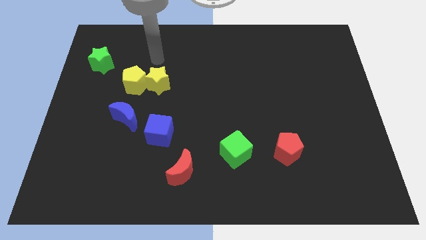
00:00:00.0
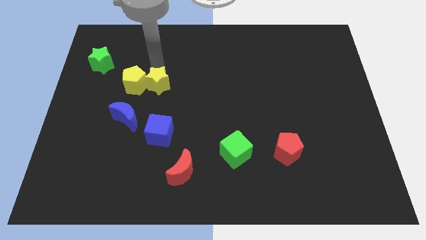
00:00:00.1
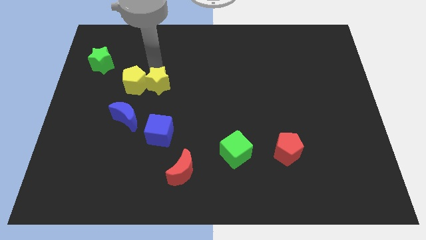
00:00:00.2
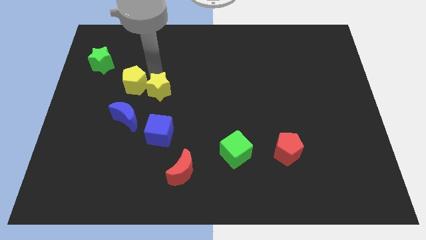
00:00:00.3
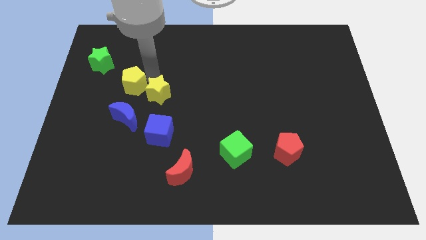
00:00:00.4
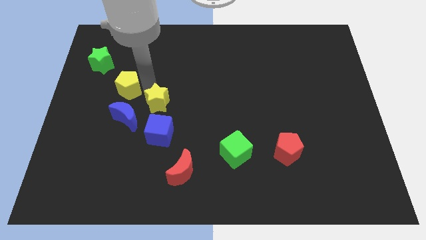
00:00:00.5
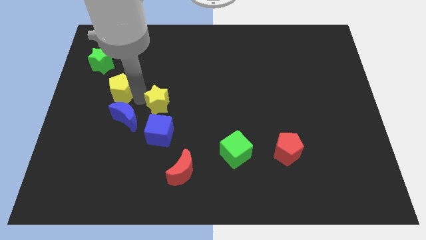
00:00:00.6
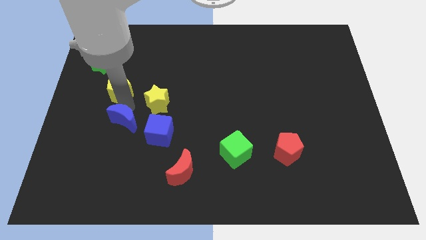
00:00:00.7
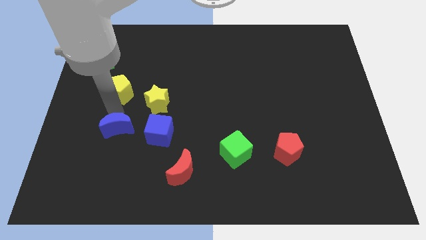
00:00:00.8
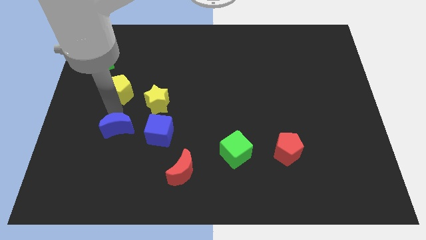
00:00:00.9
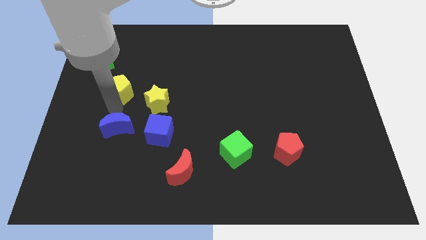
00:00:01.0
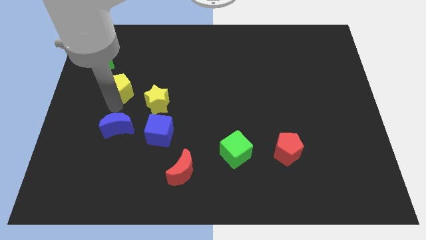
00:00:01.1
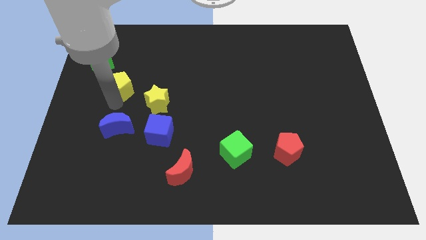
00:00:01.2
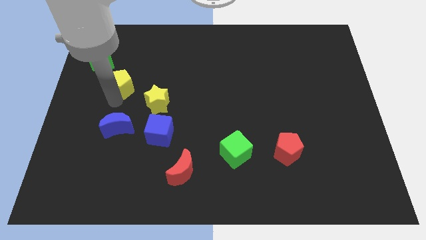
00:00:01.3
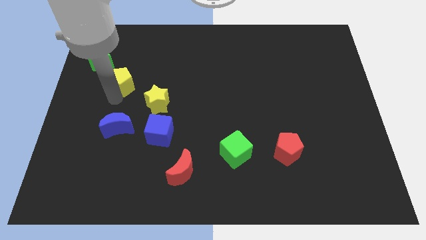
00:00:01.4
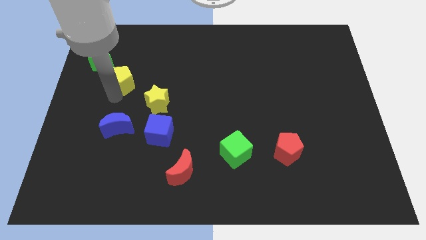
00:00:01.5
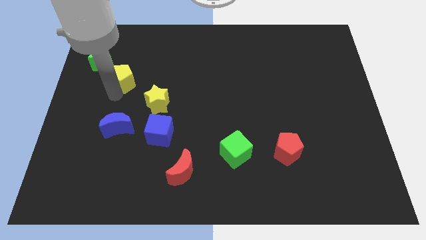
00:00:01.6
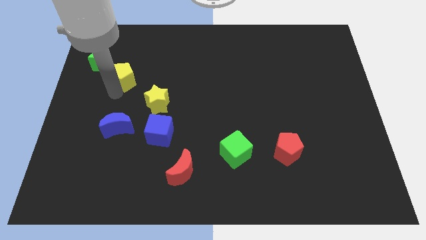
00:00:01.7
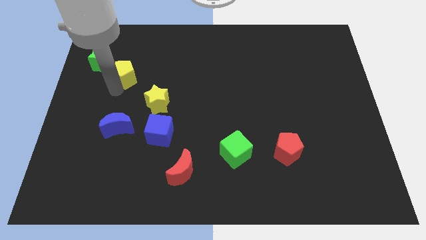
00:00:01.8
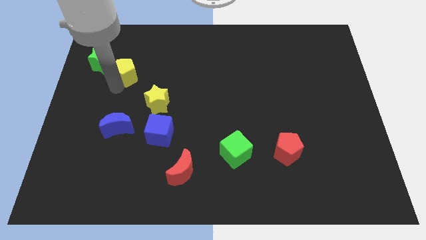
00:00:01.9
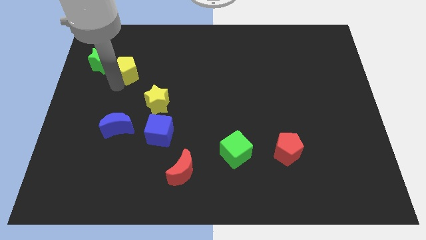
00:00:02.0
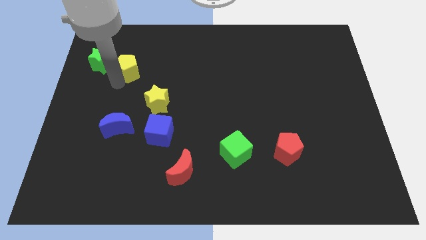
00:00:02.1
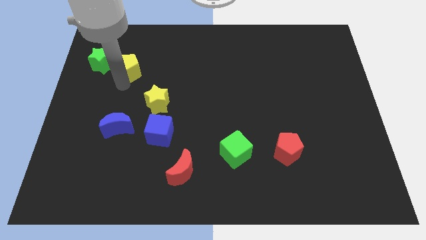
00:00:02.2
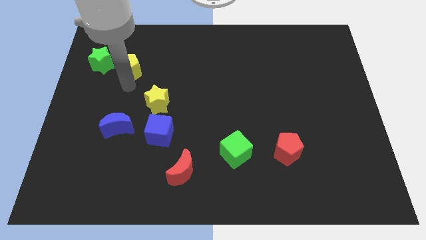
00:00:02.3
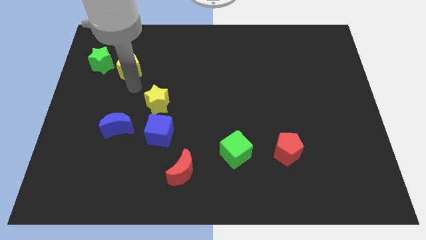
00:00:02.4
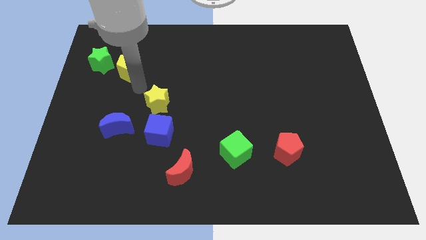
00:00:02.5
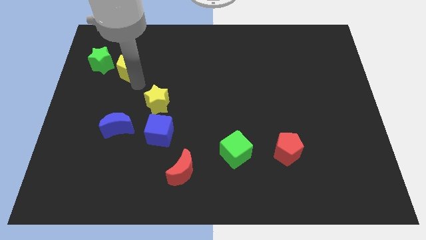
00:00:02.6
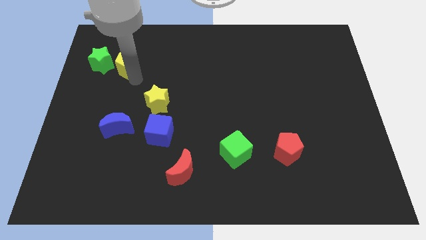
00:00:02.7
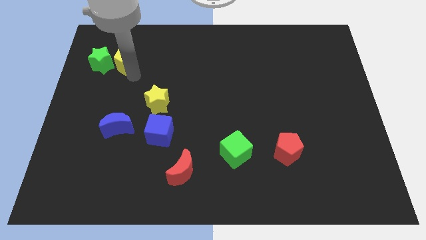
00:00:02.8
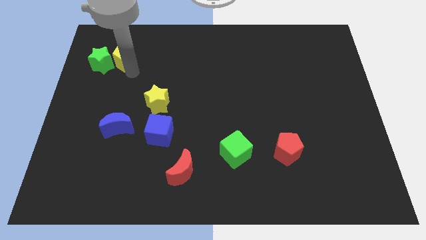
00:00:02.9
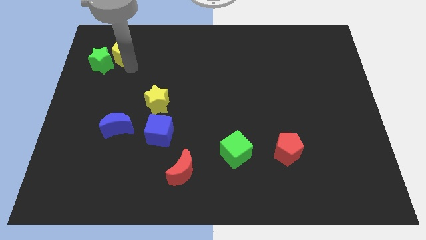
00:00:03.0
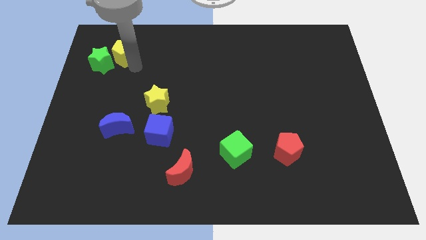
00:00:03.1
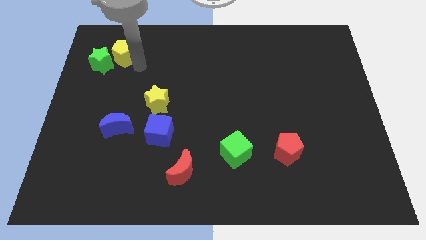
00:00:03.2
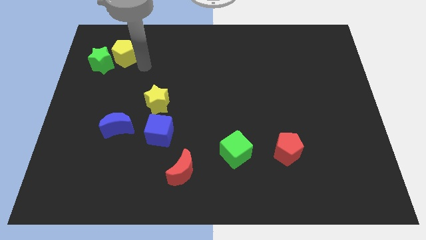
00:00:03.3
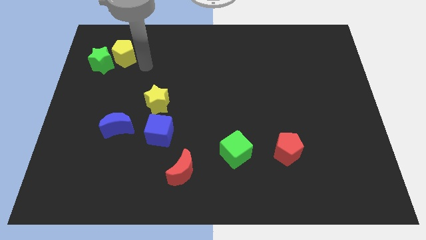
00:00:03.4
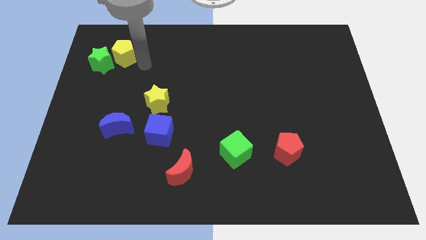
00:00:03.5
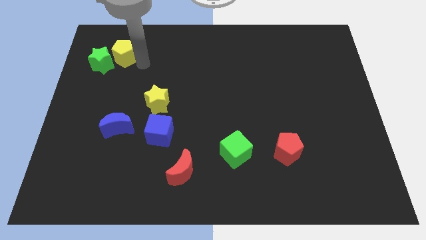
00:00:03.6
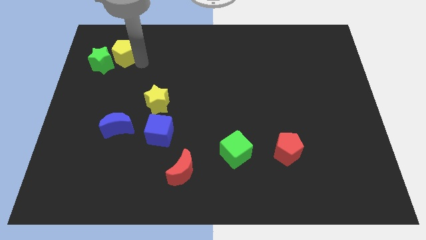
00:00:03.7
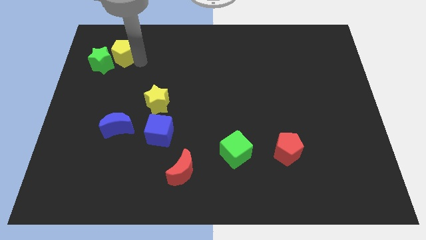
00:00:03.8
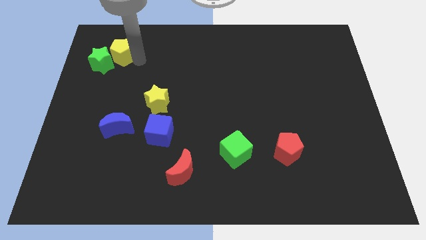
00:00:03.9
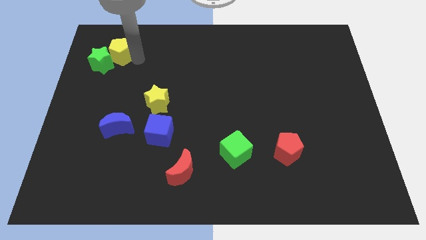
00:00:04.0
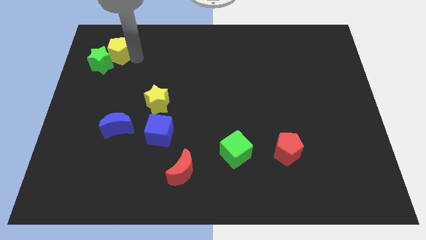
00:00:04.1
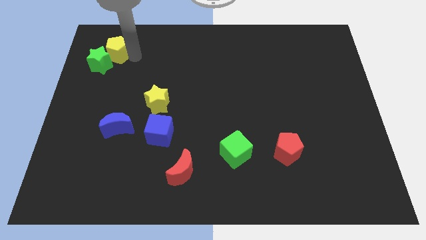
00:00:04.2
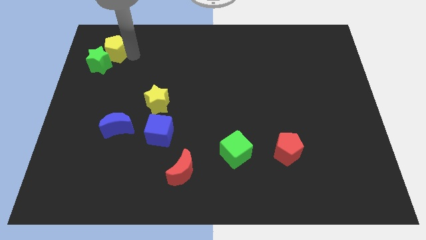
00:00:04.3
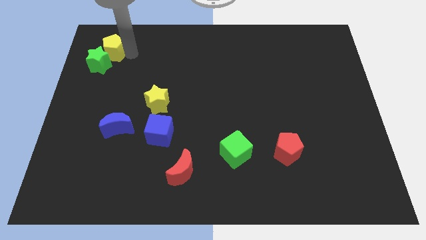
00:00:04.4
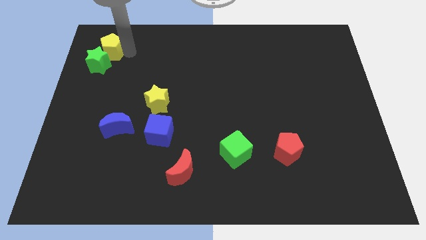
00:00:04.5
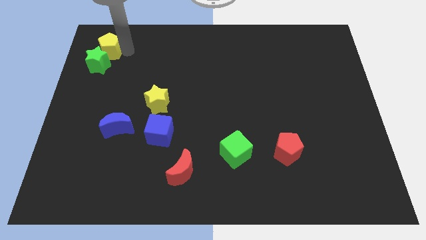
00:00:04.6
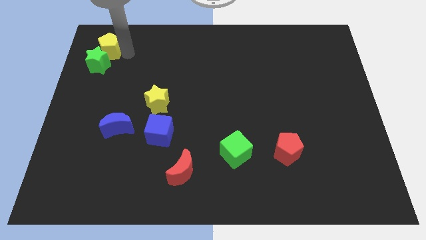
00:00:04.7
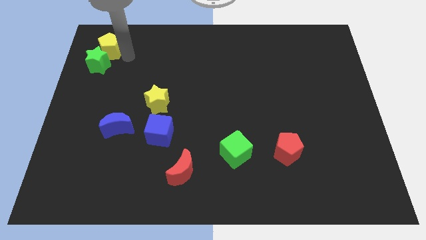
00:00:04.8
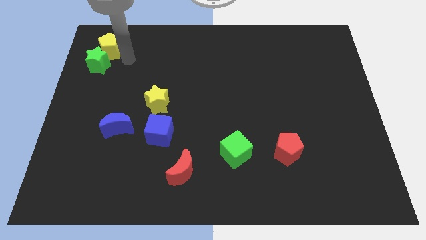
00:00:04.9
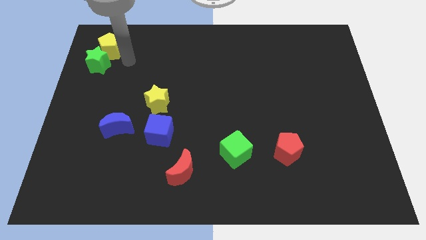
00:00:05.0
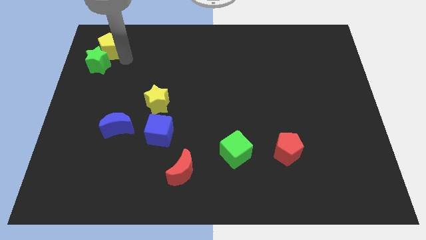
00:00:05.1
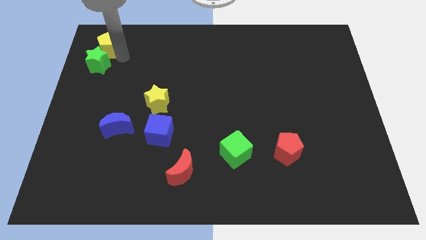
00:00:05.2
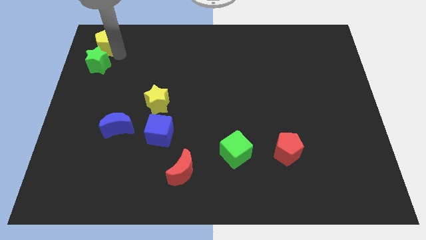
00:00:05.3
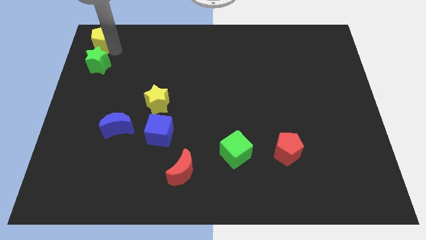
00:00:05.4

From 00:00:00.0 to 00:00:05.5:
push the yellow pentagon to the top left of the board

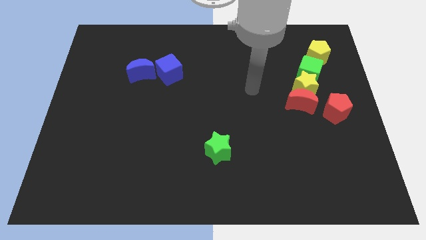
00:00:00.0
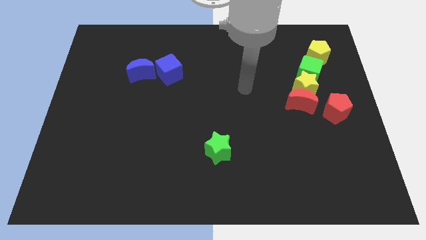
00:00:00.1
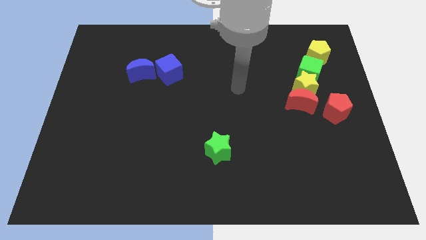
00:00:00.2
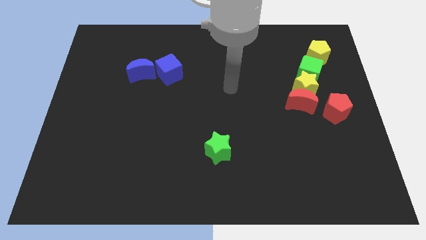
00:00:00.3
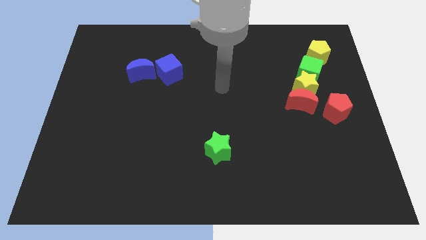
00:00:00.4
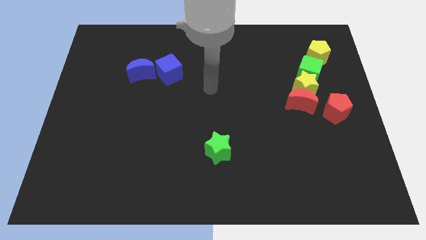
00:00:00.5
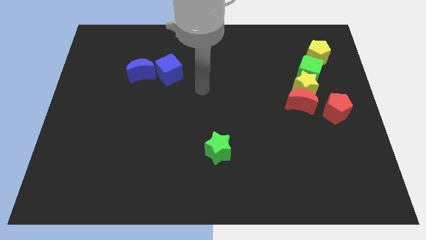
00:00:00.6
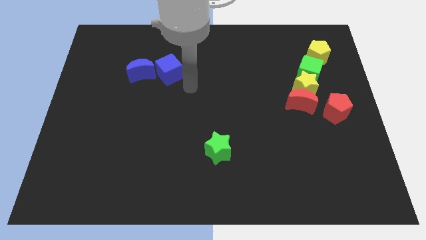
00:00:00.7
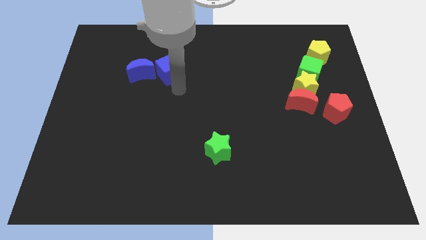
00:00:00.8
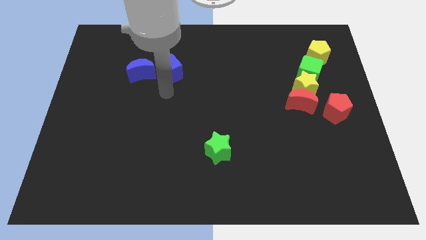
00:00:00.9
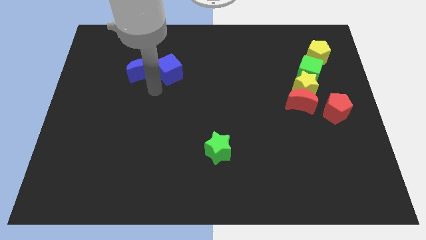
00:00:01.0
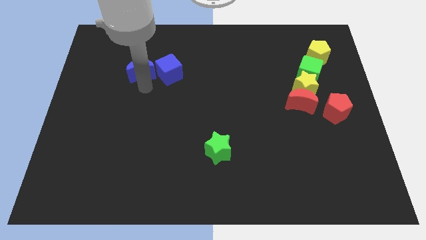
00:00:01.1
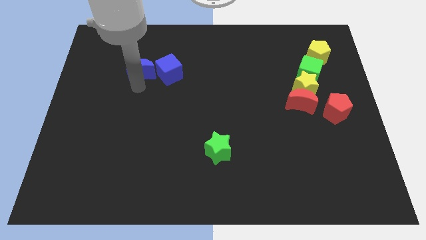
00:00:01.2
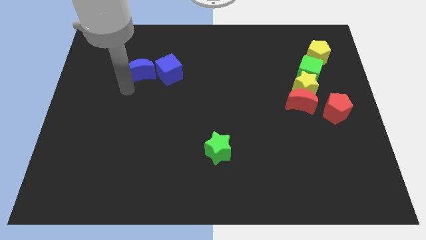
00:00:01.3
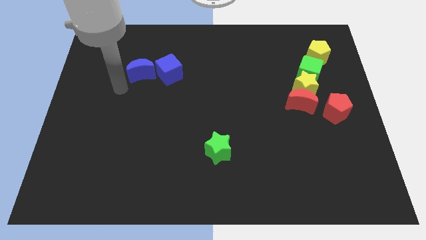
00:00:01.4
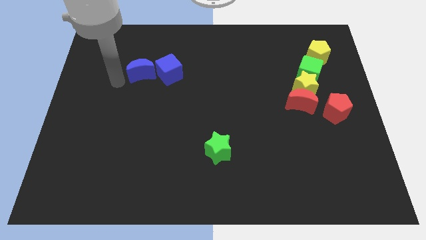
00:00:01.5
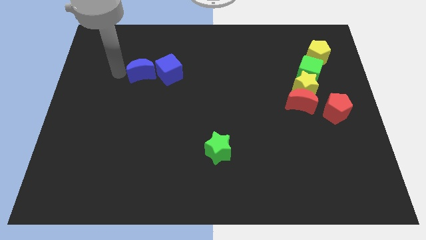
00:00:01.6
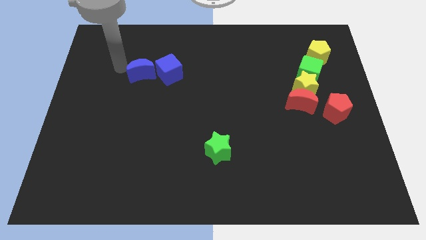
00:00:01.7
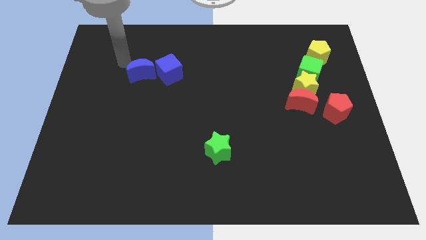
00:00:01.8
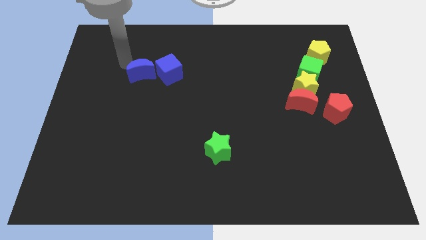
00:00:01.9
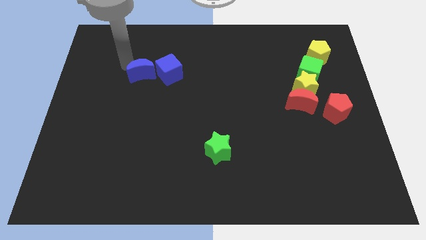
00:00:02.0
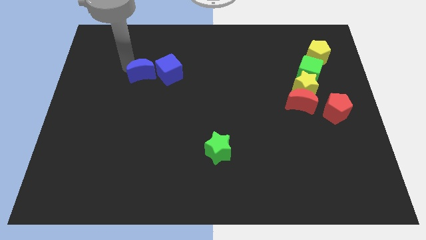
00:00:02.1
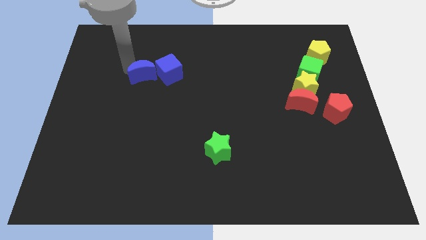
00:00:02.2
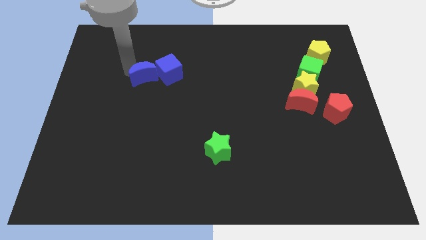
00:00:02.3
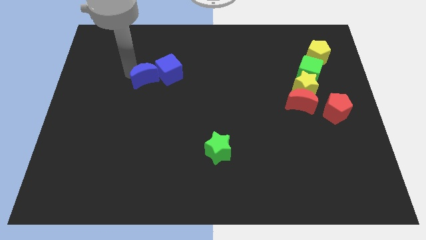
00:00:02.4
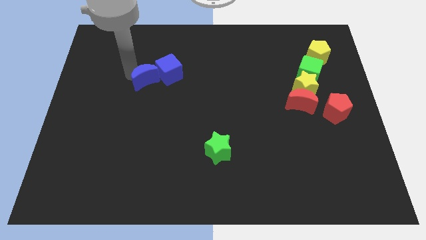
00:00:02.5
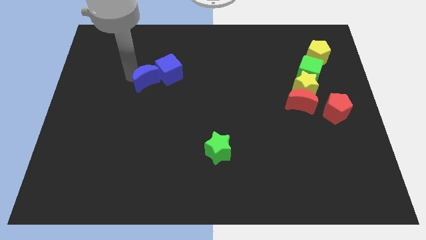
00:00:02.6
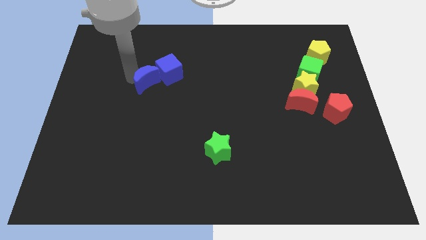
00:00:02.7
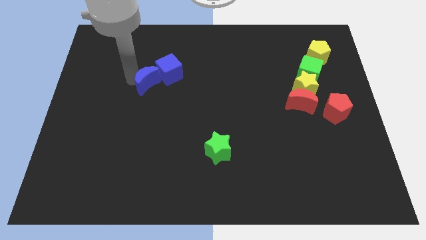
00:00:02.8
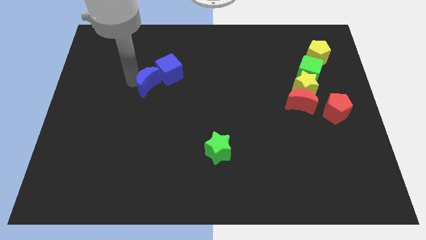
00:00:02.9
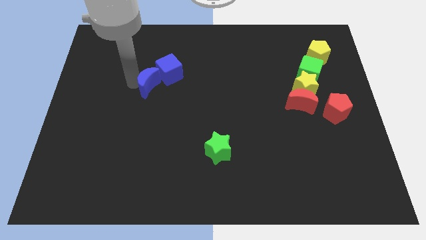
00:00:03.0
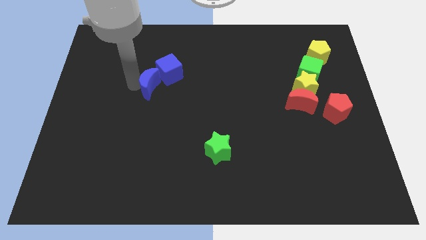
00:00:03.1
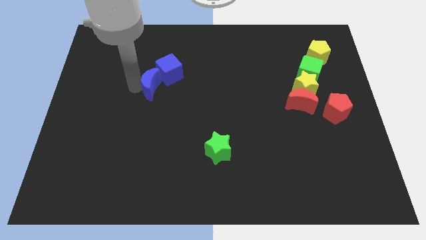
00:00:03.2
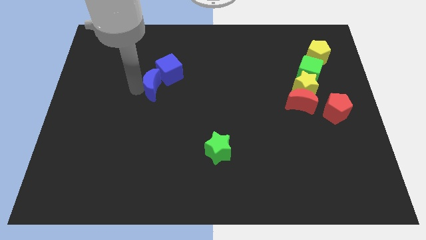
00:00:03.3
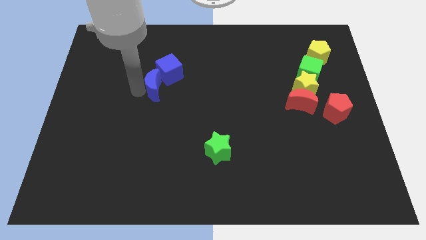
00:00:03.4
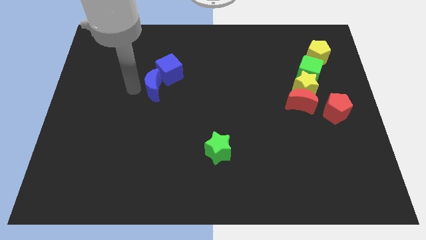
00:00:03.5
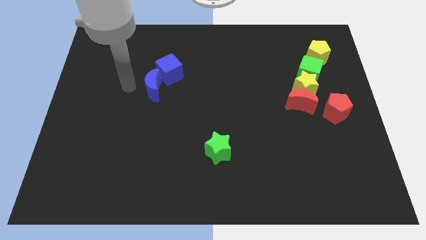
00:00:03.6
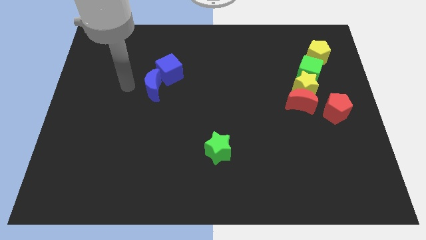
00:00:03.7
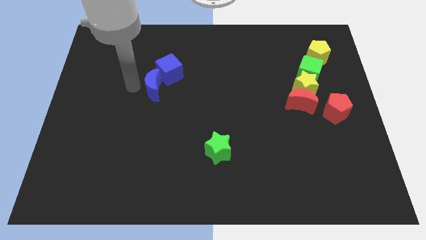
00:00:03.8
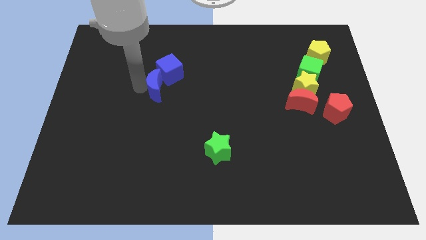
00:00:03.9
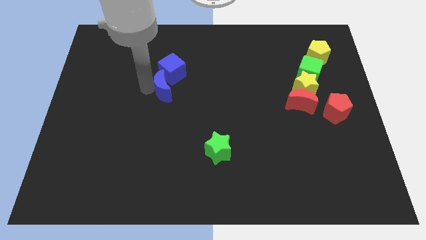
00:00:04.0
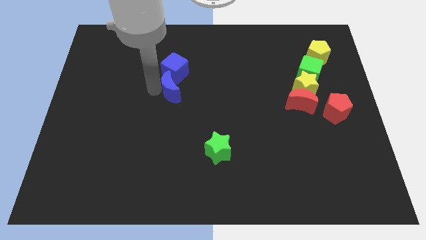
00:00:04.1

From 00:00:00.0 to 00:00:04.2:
put the blue moon to the middle of the board
